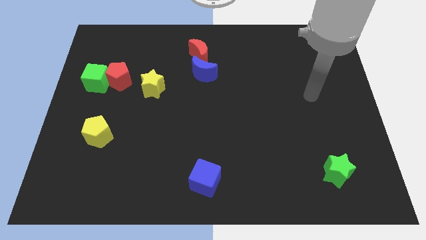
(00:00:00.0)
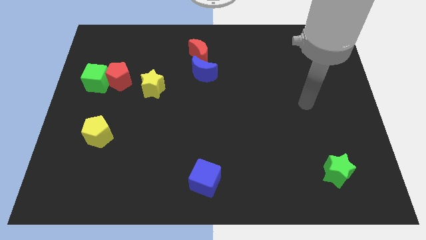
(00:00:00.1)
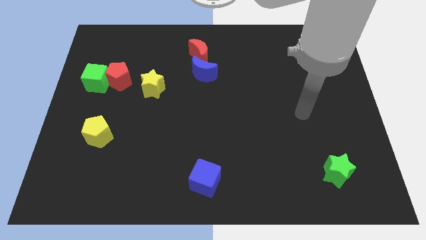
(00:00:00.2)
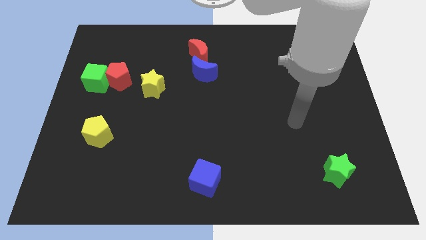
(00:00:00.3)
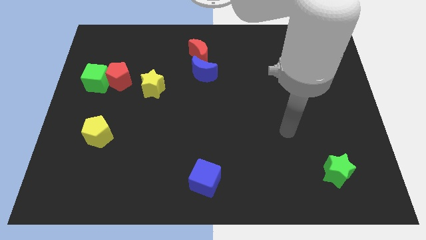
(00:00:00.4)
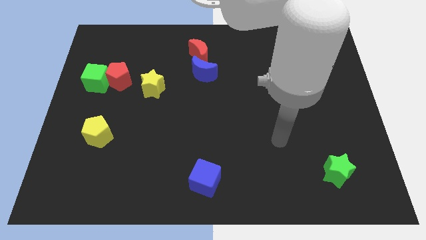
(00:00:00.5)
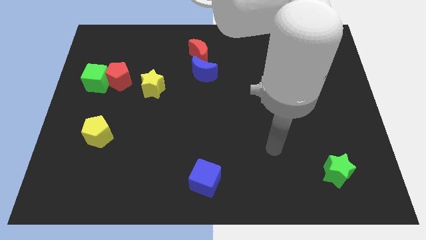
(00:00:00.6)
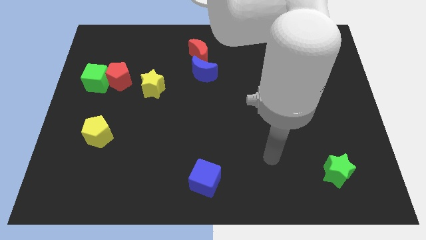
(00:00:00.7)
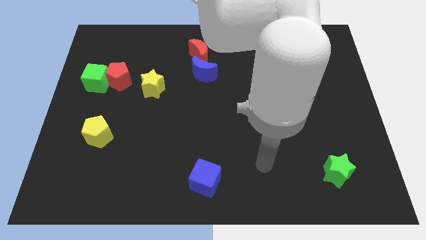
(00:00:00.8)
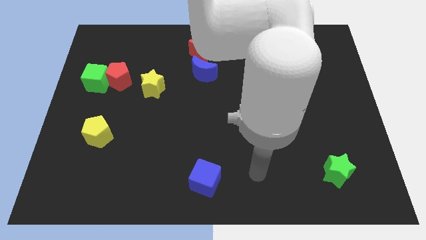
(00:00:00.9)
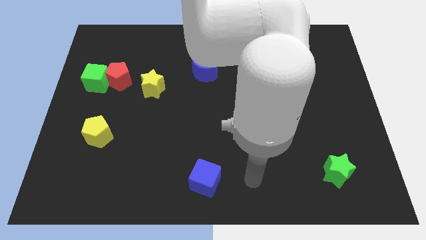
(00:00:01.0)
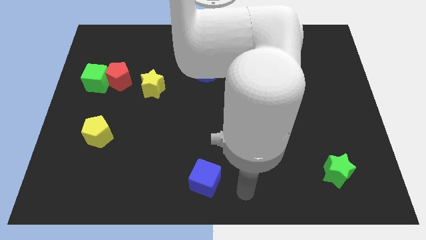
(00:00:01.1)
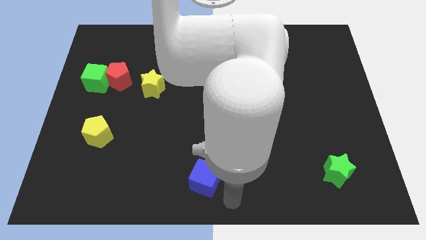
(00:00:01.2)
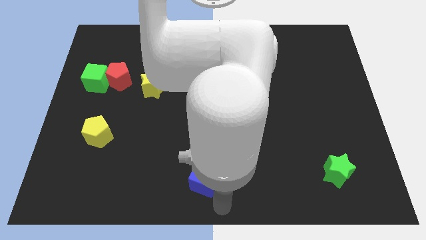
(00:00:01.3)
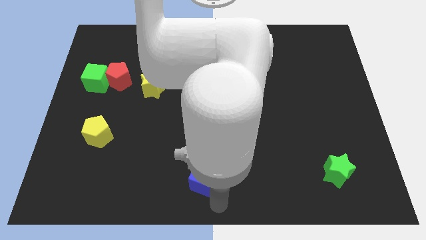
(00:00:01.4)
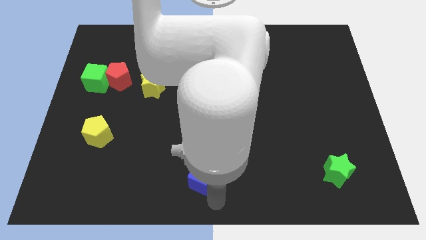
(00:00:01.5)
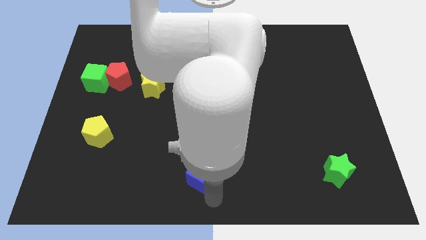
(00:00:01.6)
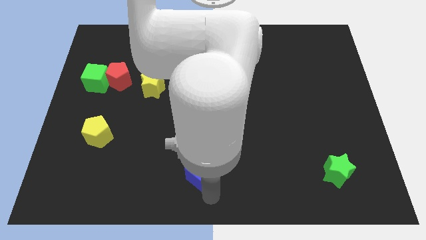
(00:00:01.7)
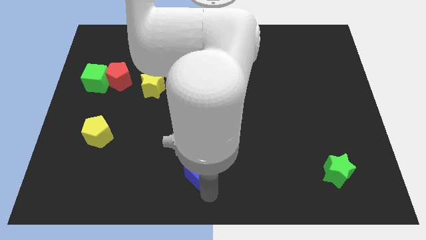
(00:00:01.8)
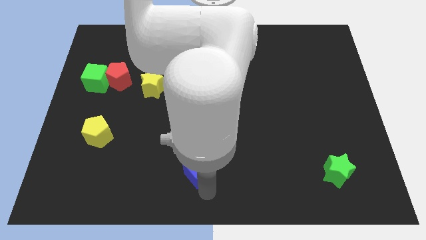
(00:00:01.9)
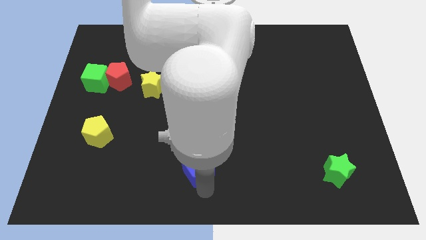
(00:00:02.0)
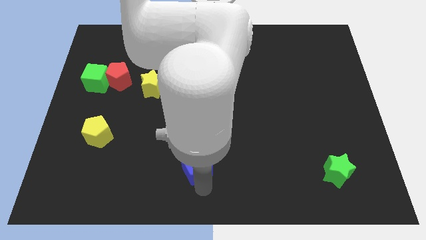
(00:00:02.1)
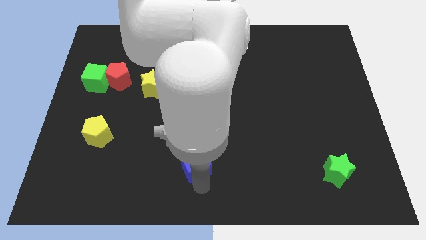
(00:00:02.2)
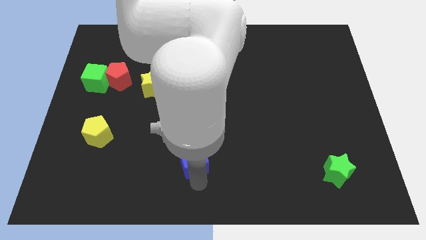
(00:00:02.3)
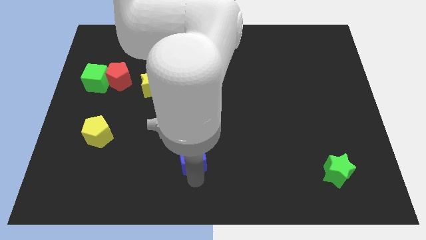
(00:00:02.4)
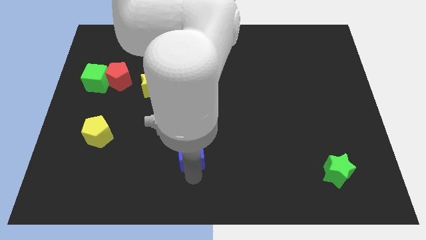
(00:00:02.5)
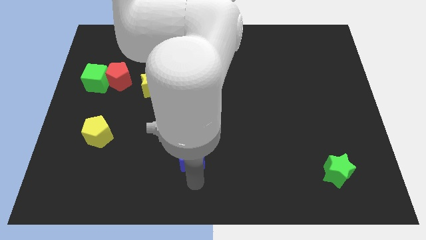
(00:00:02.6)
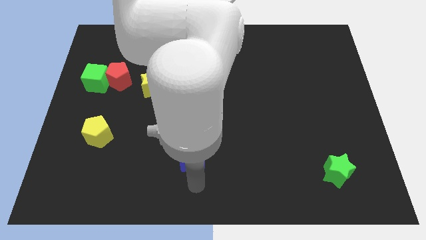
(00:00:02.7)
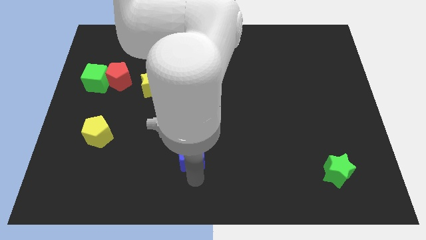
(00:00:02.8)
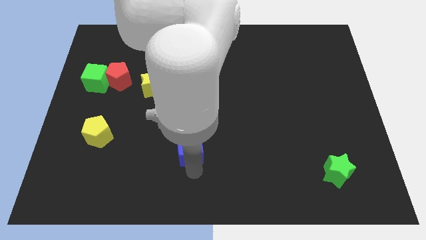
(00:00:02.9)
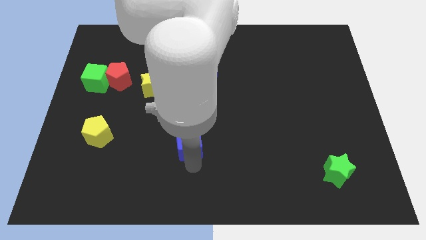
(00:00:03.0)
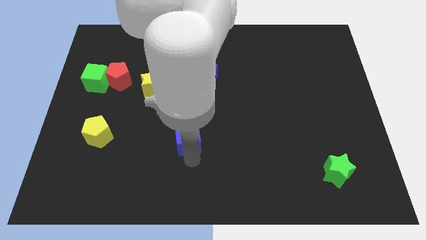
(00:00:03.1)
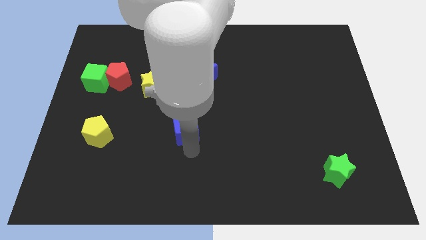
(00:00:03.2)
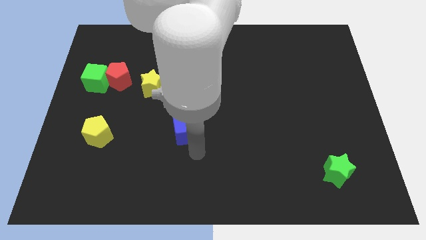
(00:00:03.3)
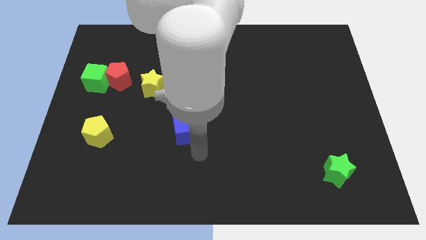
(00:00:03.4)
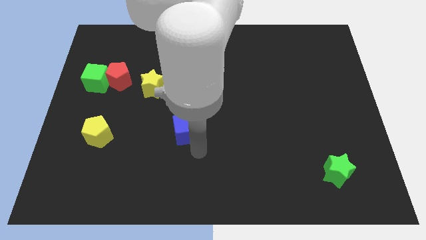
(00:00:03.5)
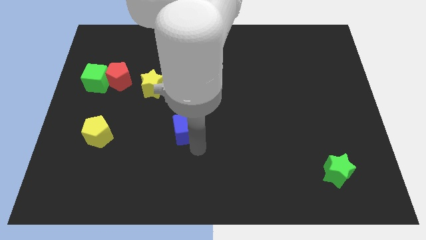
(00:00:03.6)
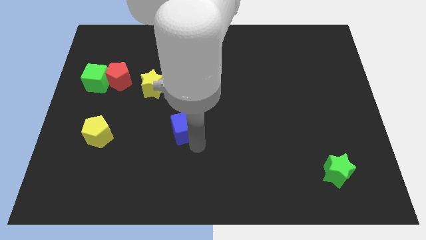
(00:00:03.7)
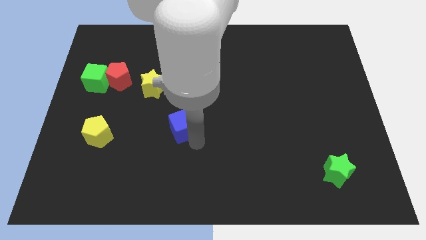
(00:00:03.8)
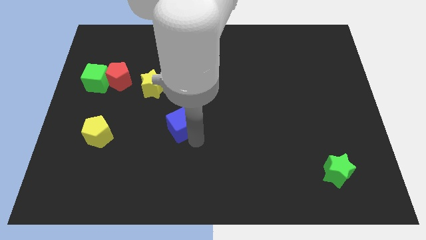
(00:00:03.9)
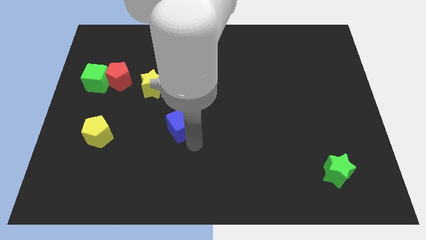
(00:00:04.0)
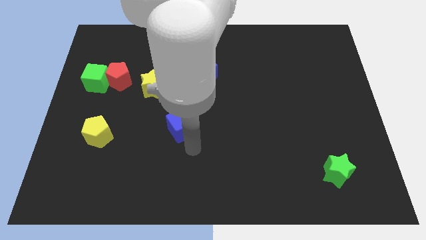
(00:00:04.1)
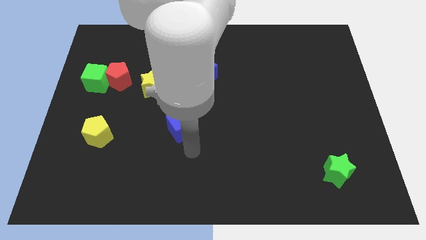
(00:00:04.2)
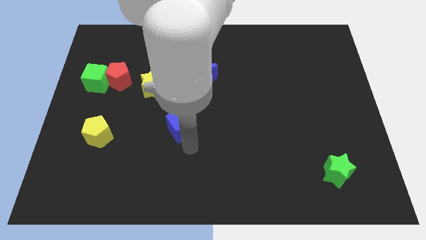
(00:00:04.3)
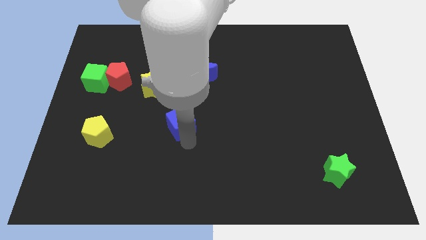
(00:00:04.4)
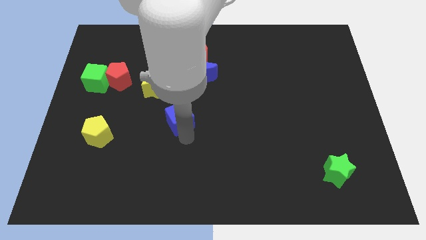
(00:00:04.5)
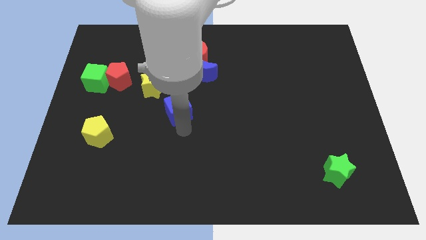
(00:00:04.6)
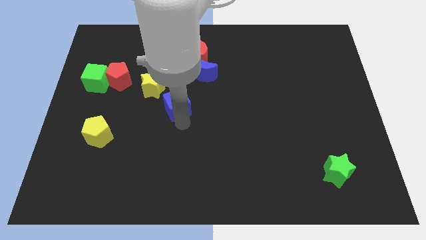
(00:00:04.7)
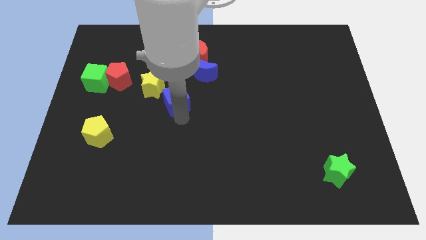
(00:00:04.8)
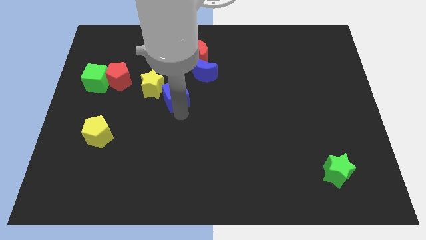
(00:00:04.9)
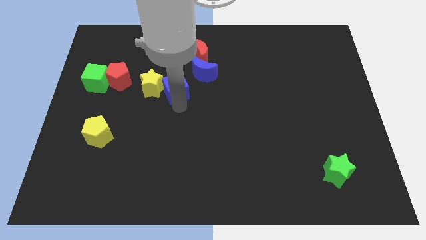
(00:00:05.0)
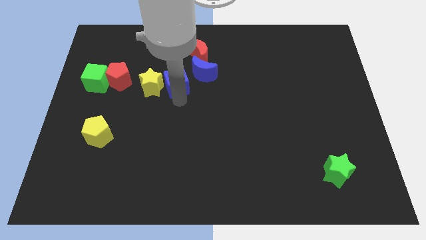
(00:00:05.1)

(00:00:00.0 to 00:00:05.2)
move the blue cube left of the blue moon

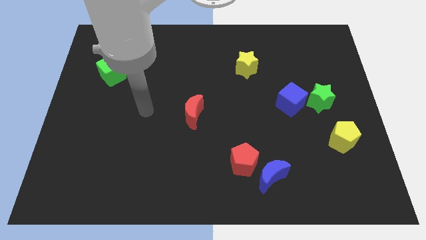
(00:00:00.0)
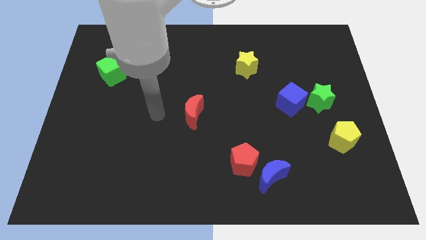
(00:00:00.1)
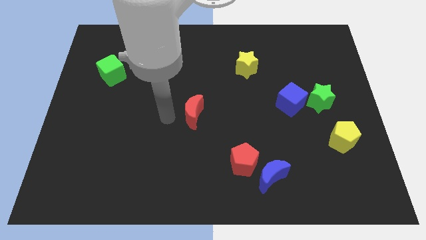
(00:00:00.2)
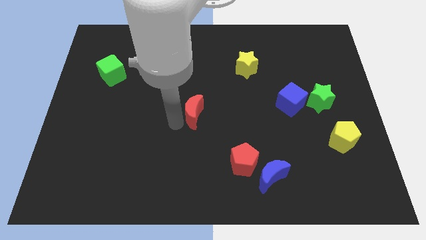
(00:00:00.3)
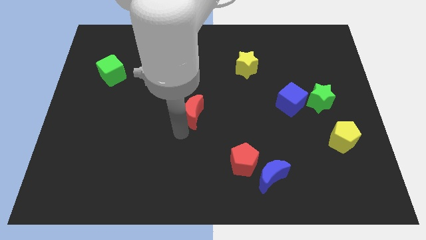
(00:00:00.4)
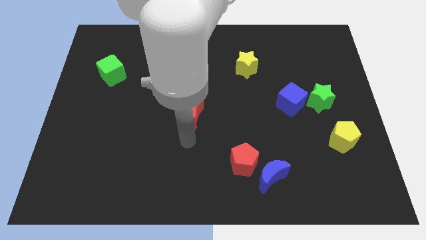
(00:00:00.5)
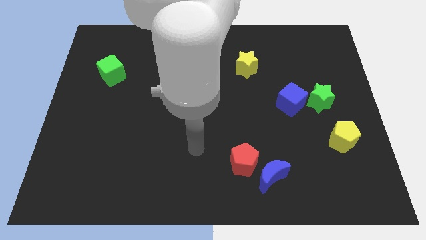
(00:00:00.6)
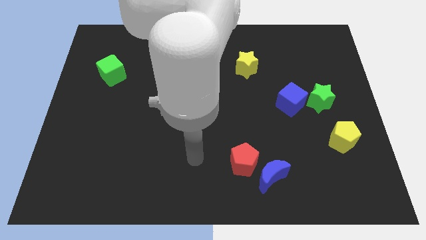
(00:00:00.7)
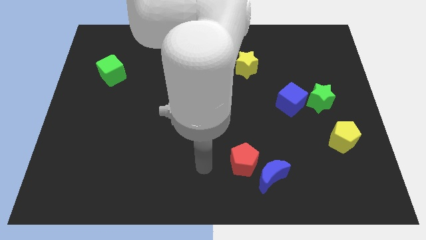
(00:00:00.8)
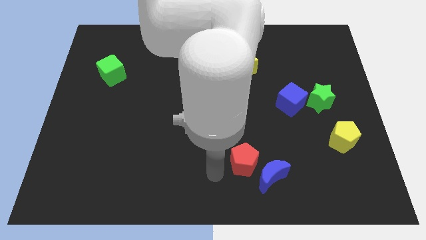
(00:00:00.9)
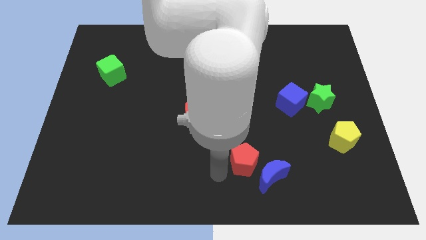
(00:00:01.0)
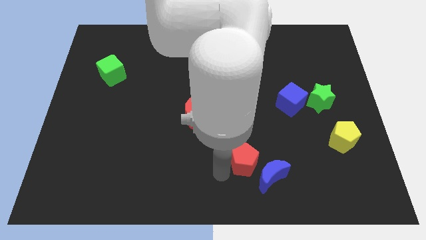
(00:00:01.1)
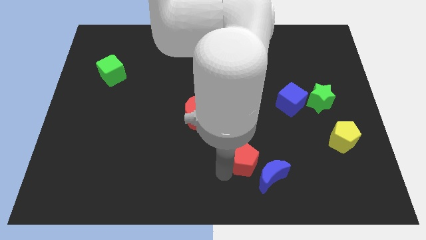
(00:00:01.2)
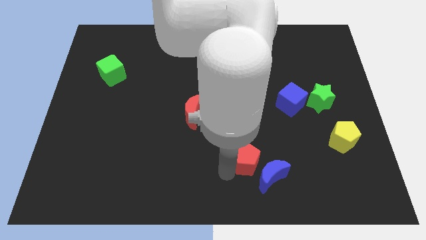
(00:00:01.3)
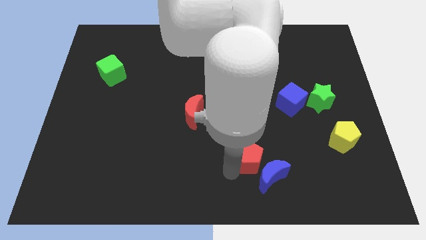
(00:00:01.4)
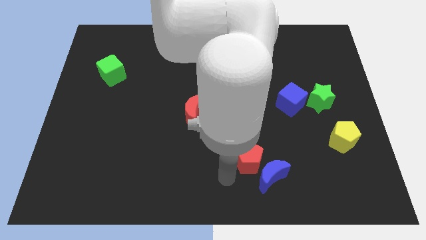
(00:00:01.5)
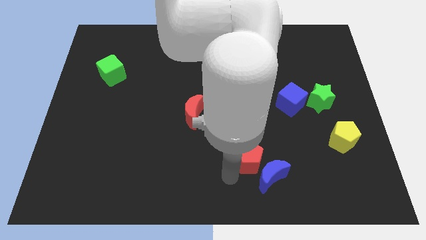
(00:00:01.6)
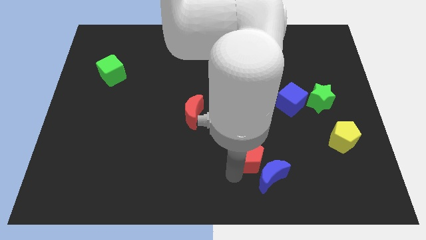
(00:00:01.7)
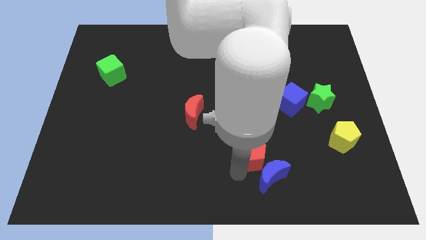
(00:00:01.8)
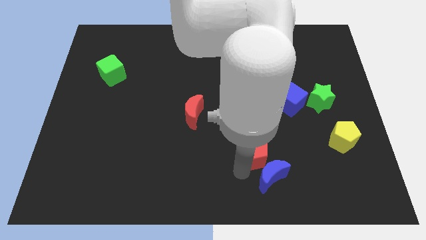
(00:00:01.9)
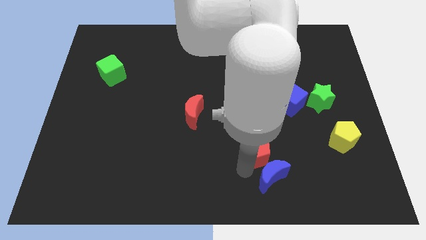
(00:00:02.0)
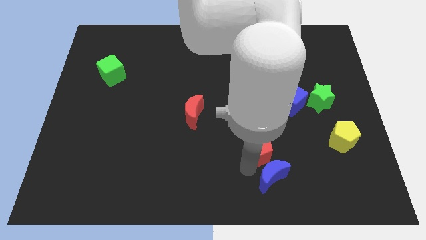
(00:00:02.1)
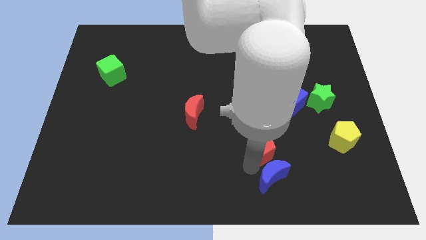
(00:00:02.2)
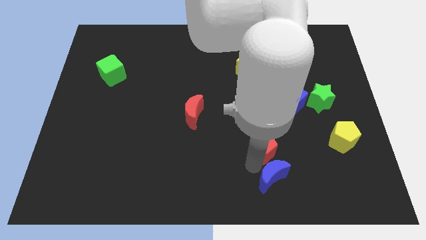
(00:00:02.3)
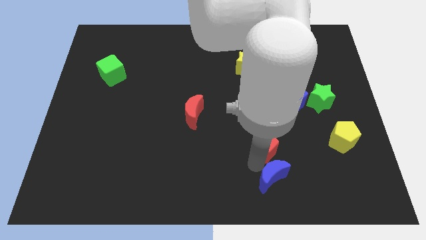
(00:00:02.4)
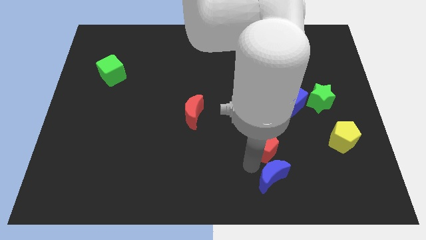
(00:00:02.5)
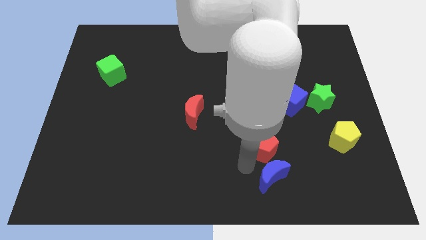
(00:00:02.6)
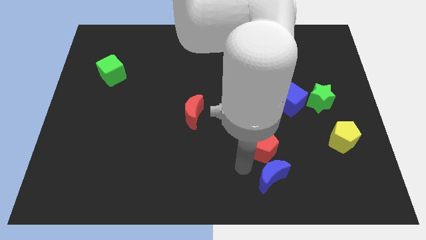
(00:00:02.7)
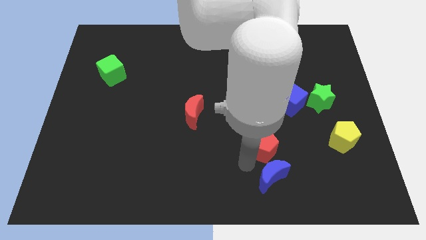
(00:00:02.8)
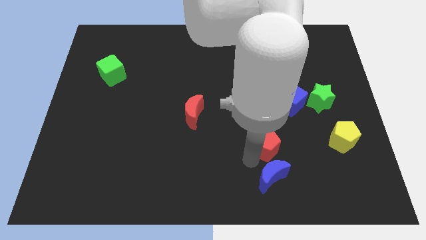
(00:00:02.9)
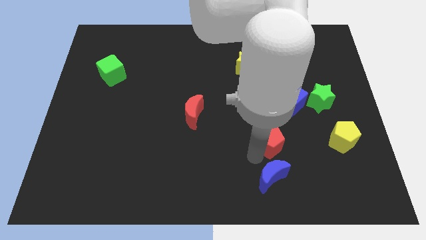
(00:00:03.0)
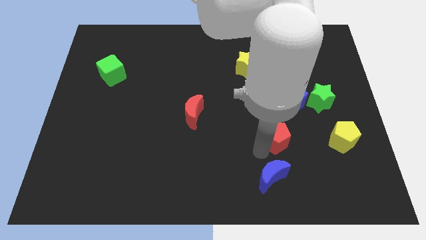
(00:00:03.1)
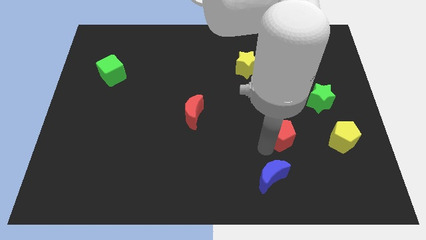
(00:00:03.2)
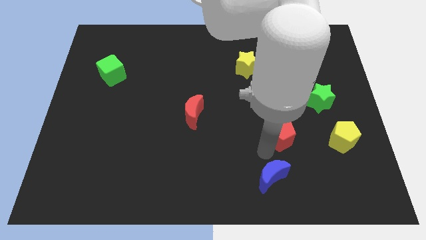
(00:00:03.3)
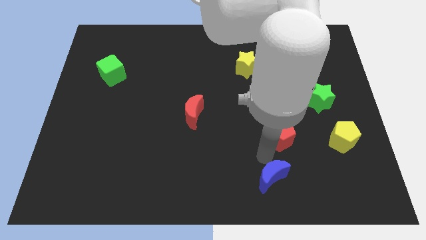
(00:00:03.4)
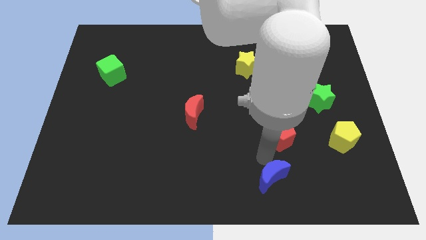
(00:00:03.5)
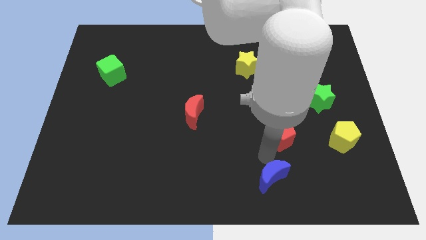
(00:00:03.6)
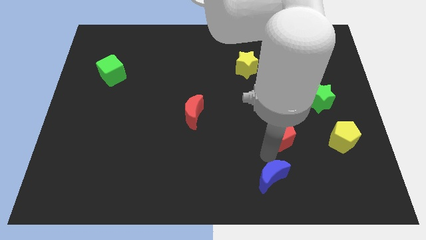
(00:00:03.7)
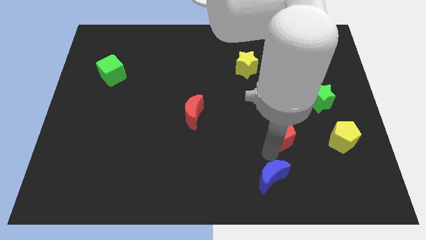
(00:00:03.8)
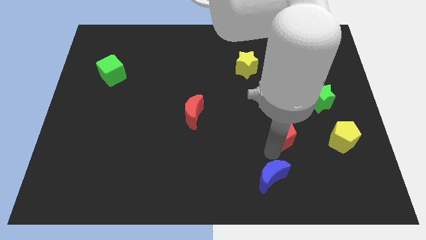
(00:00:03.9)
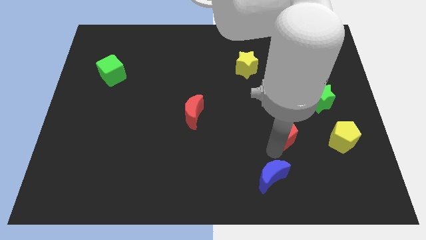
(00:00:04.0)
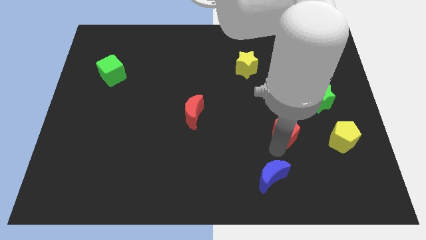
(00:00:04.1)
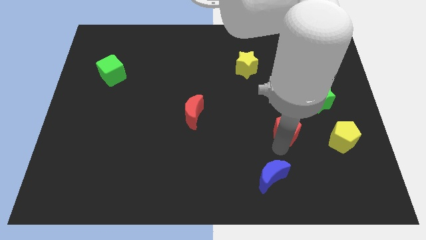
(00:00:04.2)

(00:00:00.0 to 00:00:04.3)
put the red pentagon to the bottom left of the green star
